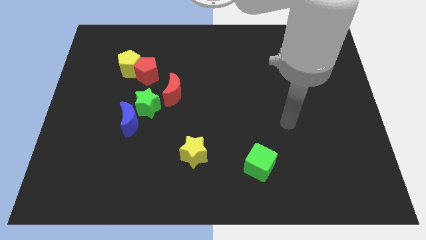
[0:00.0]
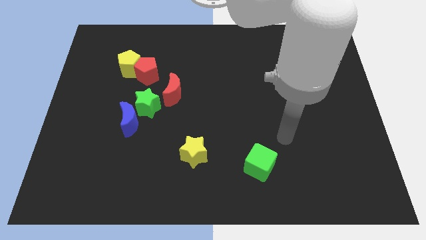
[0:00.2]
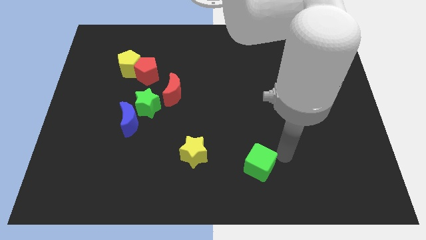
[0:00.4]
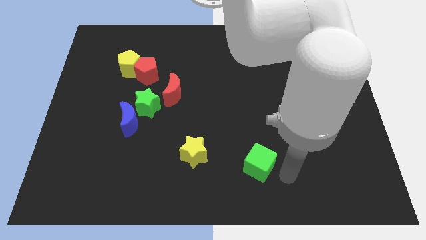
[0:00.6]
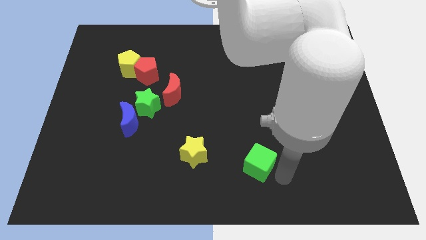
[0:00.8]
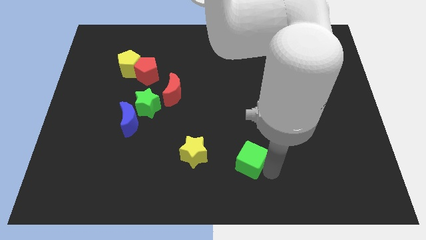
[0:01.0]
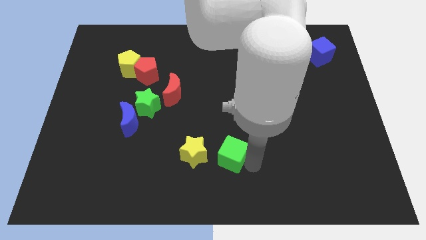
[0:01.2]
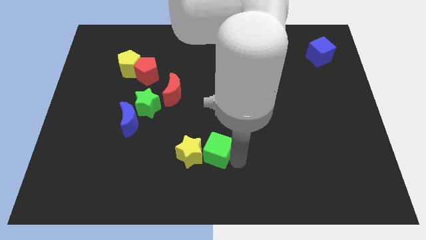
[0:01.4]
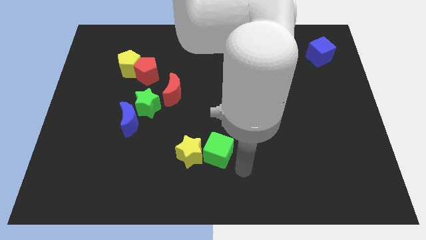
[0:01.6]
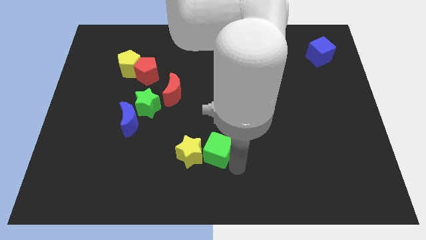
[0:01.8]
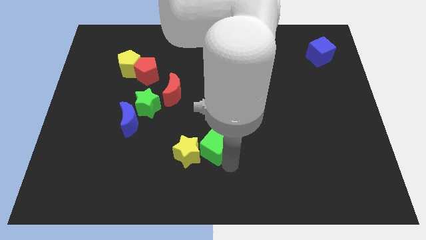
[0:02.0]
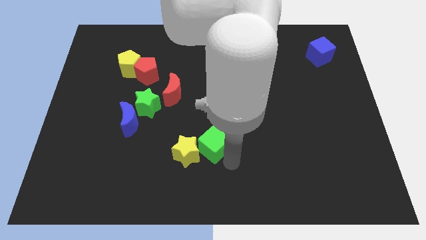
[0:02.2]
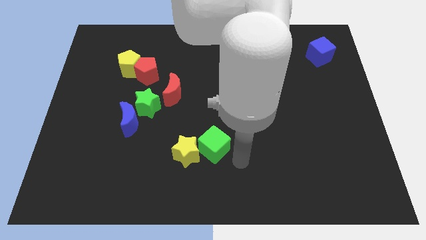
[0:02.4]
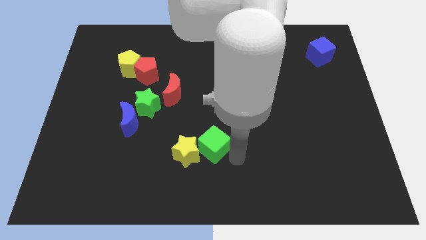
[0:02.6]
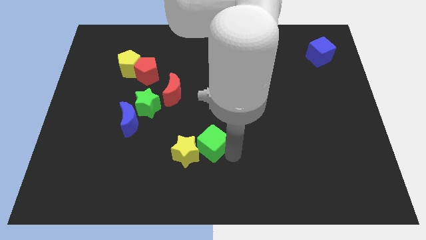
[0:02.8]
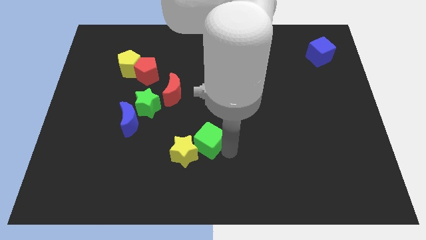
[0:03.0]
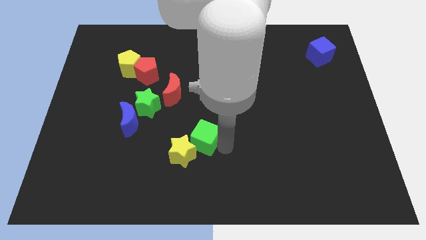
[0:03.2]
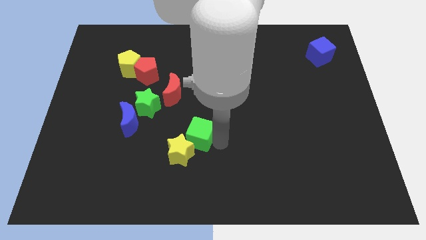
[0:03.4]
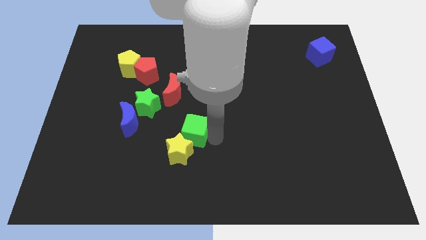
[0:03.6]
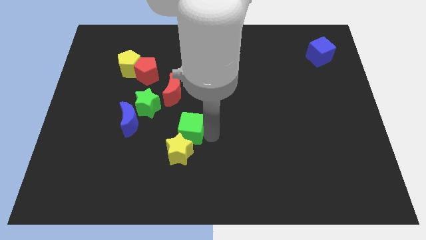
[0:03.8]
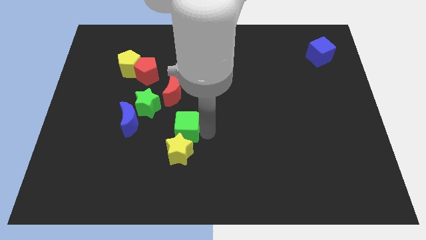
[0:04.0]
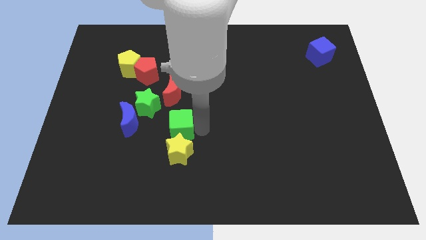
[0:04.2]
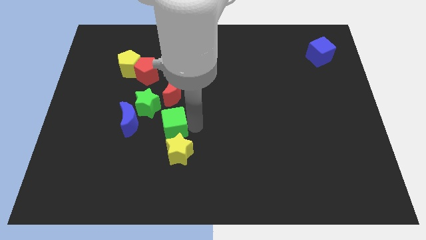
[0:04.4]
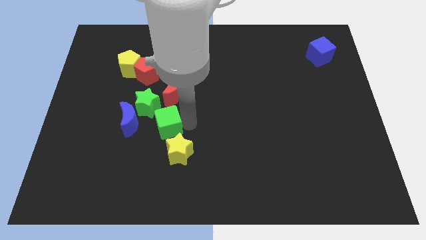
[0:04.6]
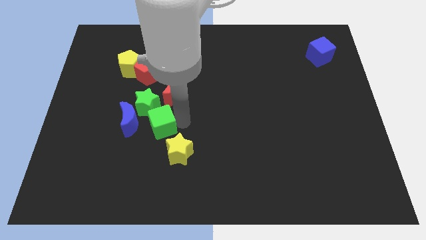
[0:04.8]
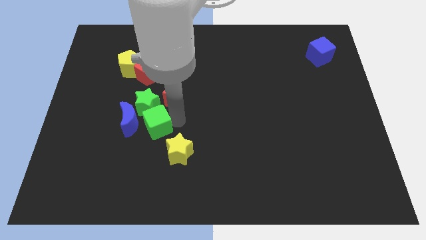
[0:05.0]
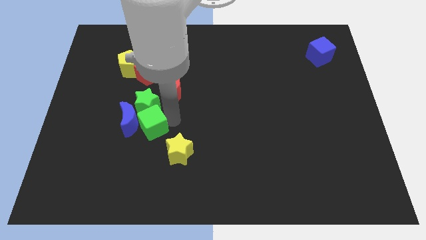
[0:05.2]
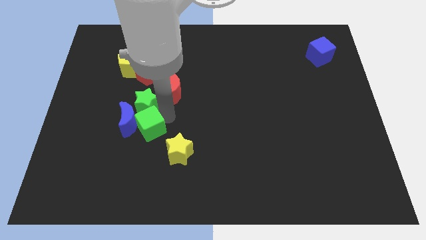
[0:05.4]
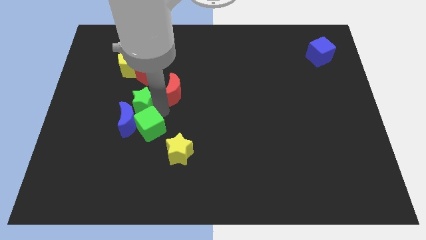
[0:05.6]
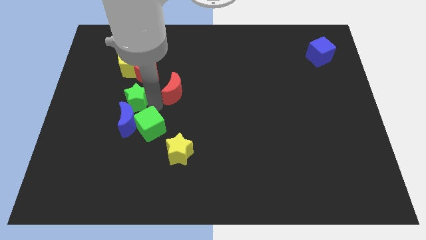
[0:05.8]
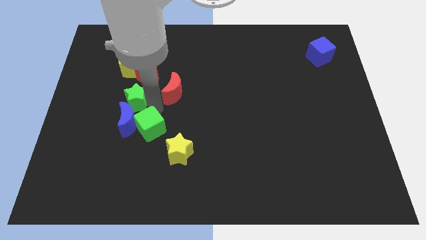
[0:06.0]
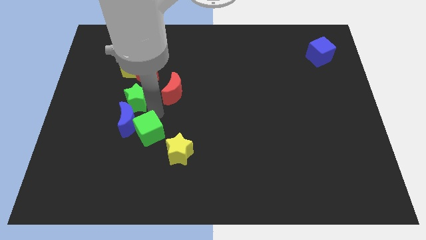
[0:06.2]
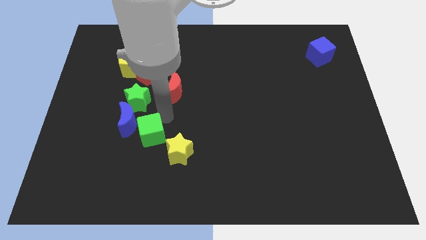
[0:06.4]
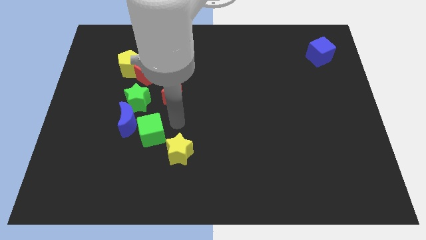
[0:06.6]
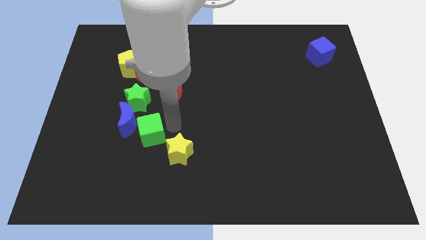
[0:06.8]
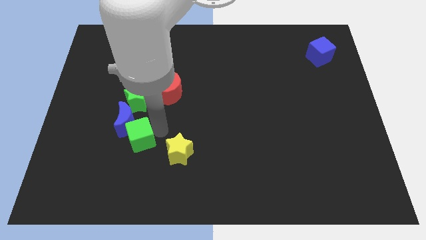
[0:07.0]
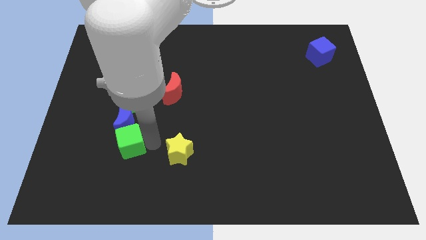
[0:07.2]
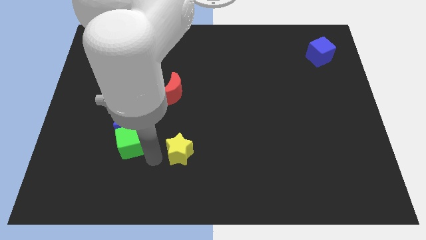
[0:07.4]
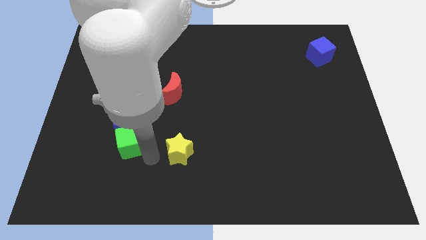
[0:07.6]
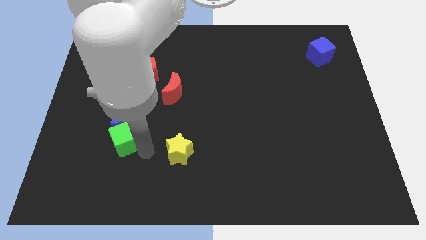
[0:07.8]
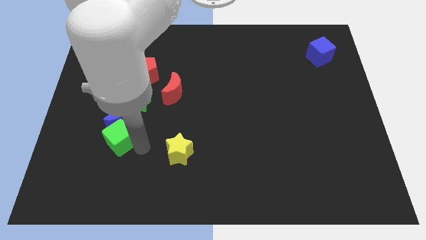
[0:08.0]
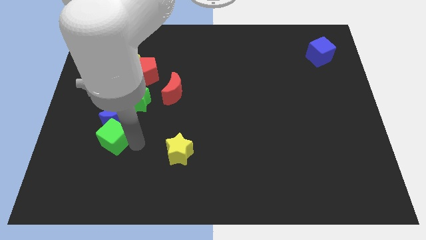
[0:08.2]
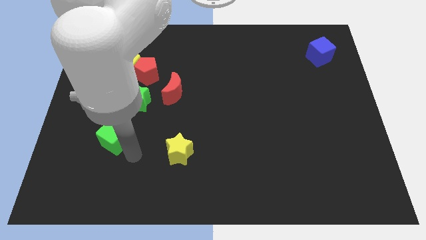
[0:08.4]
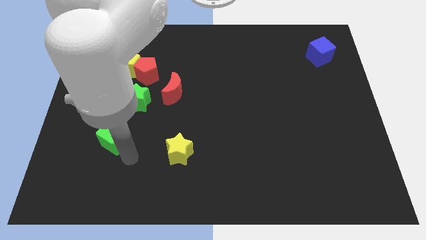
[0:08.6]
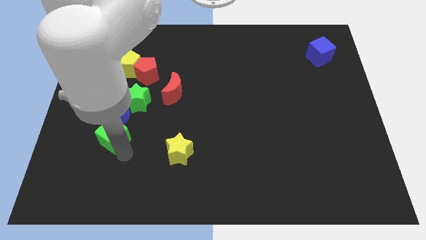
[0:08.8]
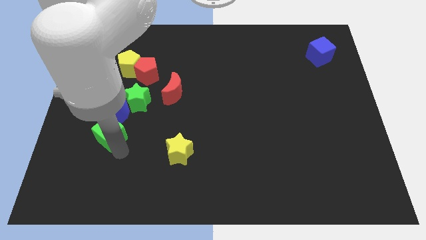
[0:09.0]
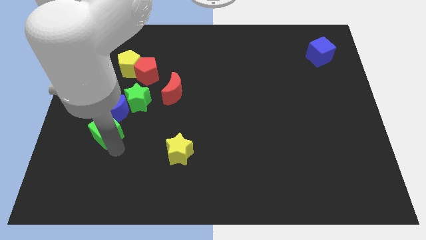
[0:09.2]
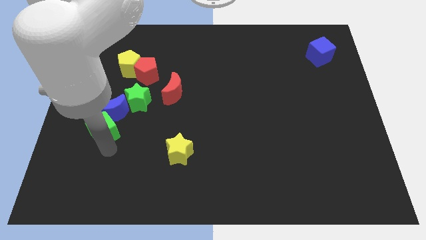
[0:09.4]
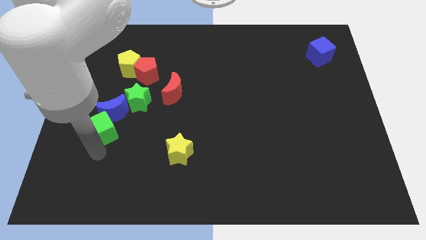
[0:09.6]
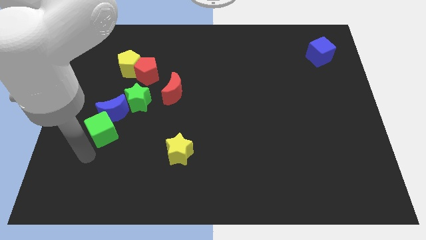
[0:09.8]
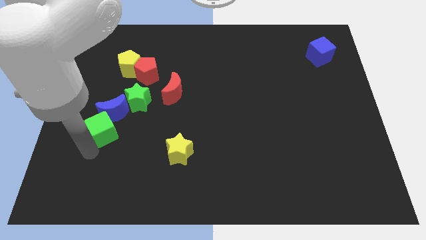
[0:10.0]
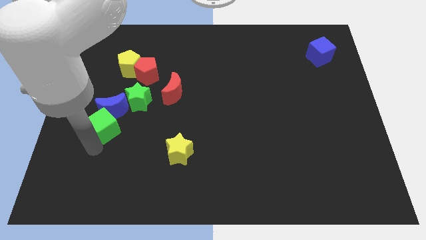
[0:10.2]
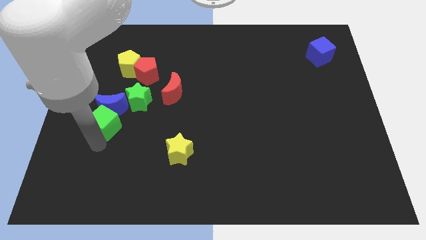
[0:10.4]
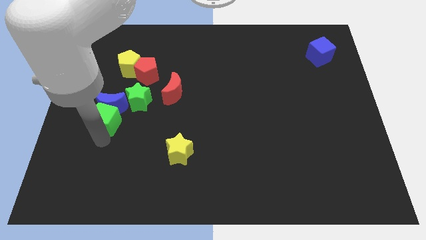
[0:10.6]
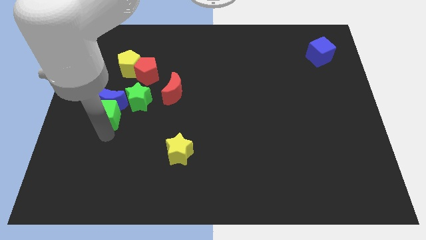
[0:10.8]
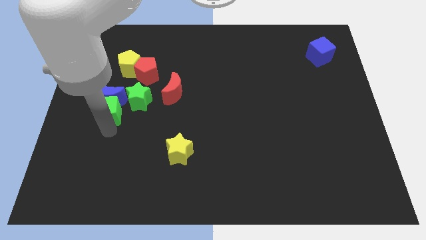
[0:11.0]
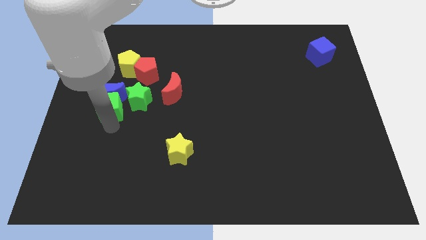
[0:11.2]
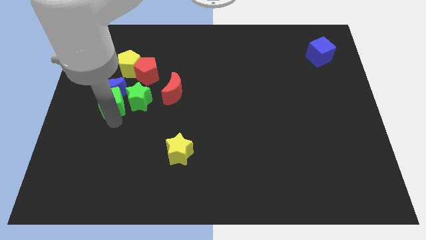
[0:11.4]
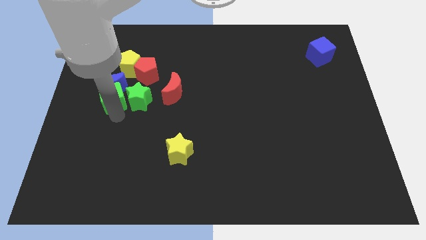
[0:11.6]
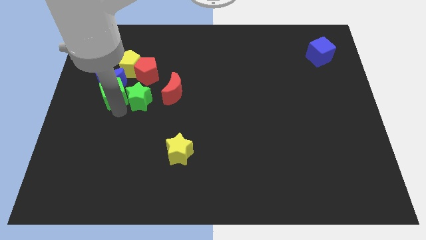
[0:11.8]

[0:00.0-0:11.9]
slide the green cube diagonally down and to the left of the yellow pentagon
